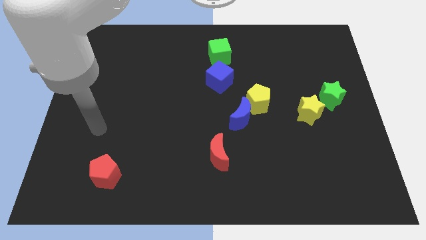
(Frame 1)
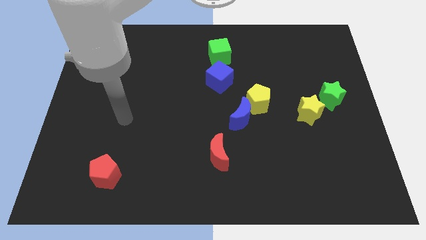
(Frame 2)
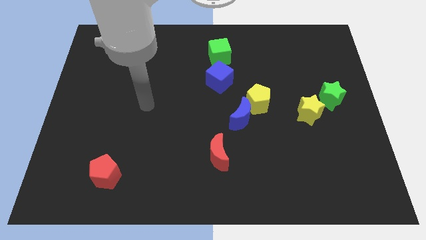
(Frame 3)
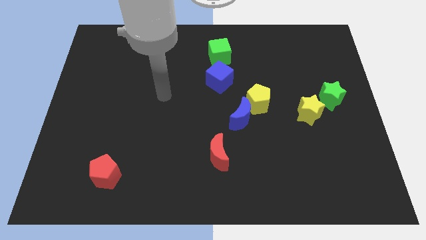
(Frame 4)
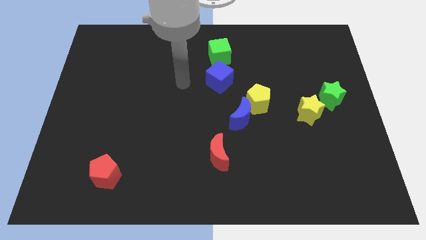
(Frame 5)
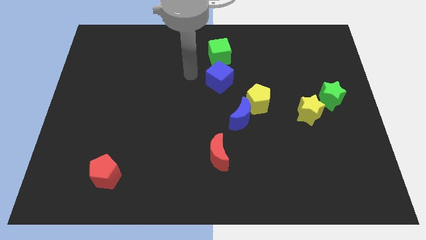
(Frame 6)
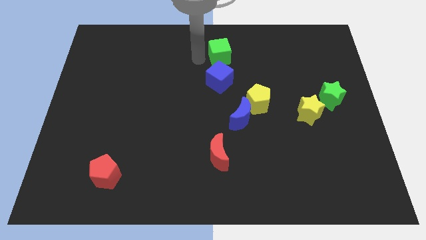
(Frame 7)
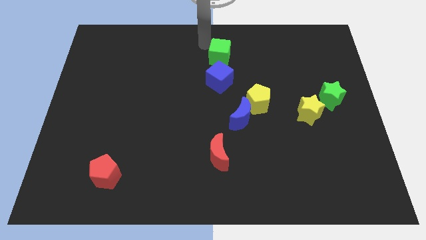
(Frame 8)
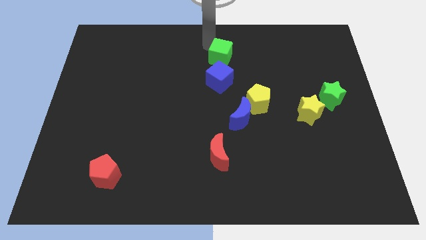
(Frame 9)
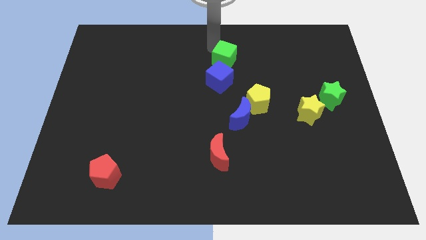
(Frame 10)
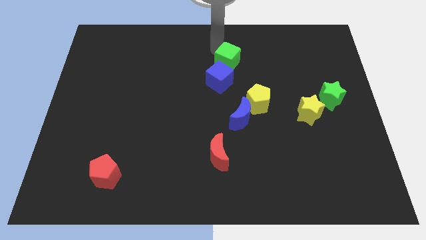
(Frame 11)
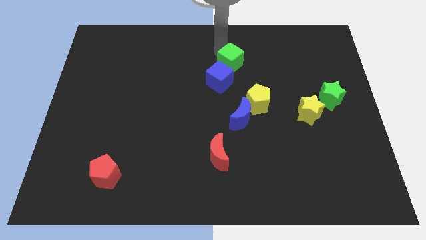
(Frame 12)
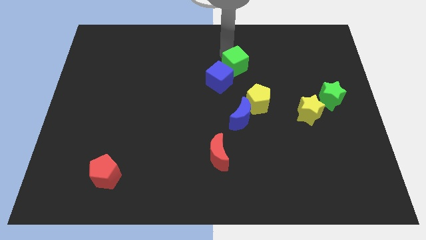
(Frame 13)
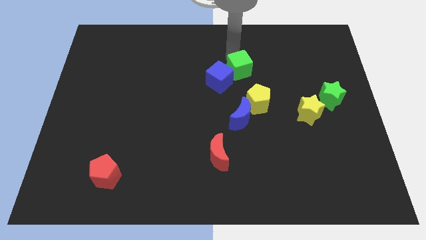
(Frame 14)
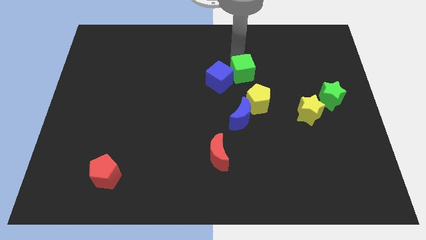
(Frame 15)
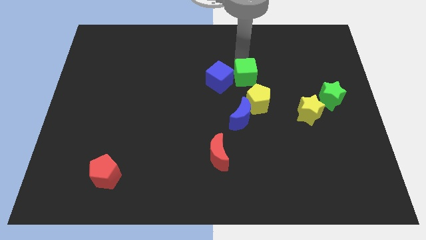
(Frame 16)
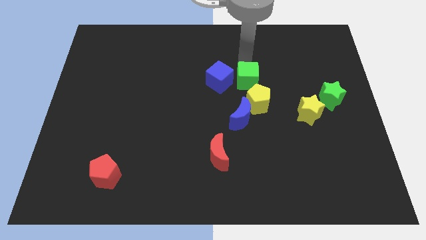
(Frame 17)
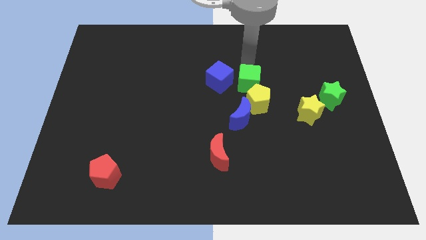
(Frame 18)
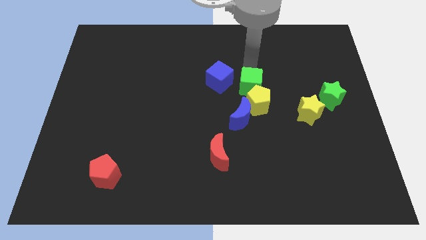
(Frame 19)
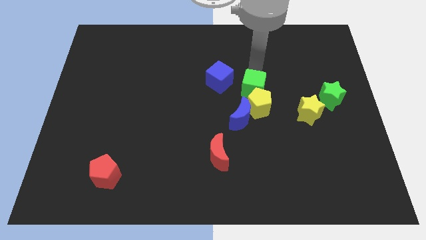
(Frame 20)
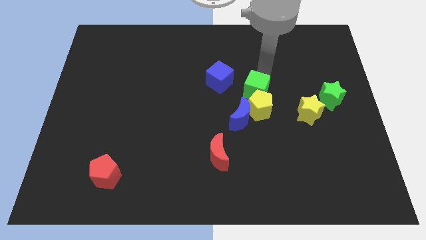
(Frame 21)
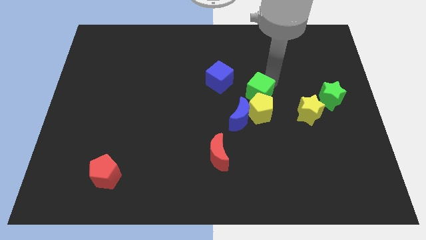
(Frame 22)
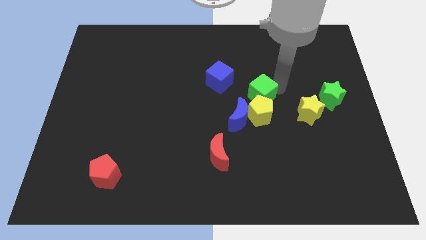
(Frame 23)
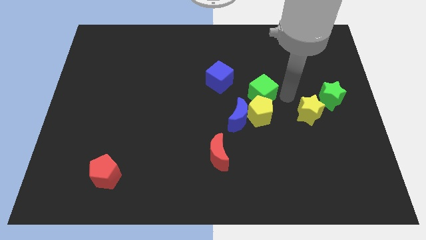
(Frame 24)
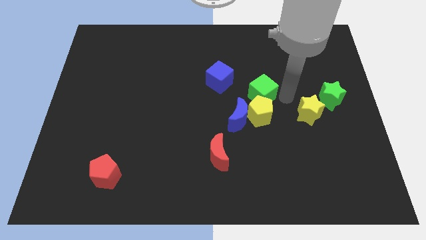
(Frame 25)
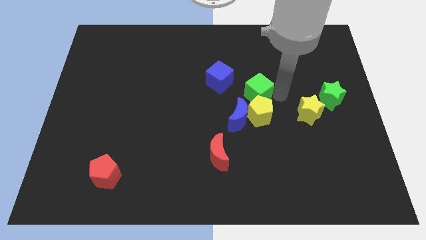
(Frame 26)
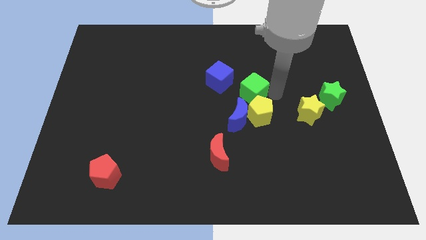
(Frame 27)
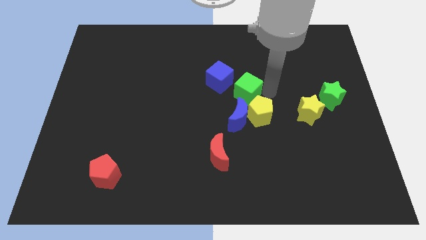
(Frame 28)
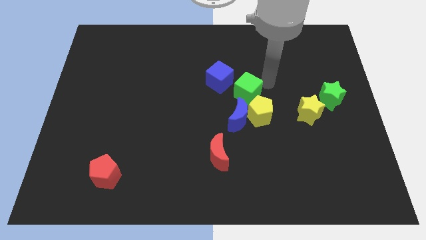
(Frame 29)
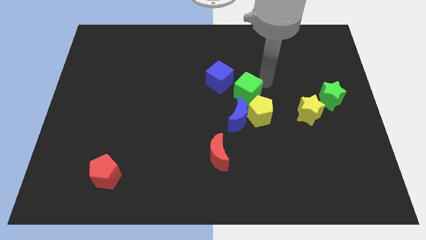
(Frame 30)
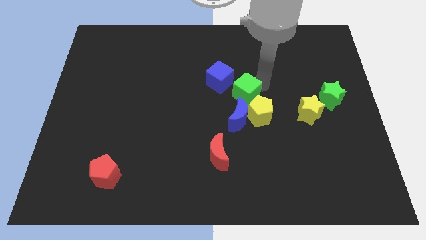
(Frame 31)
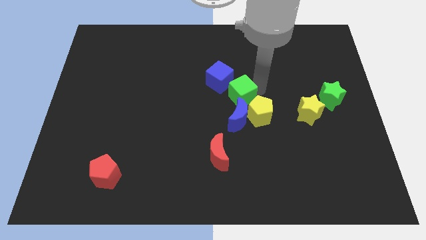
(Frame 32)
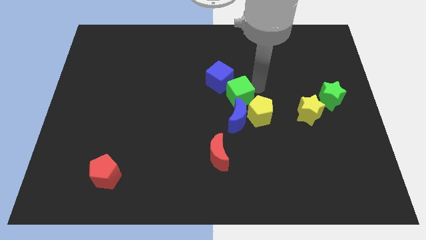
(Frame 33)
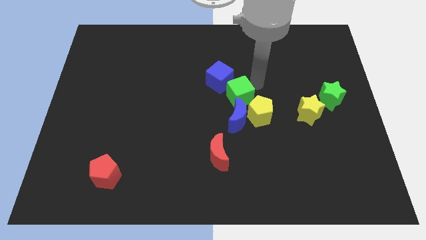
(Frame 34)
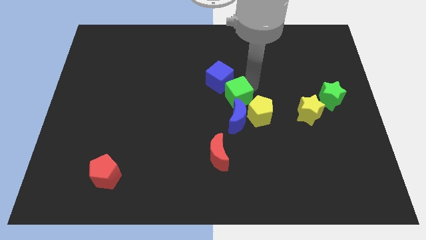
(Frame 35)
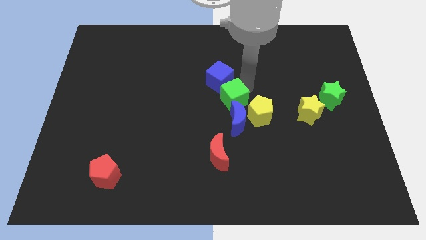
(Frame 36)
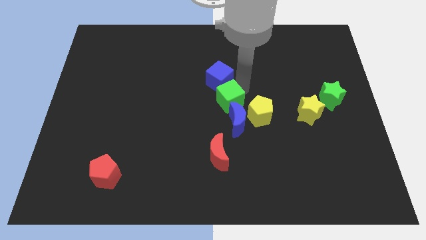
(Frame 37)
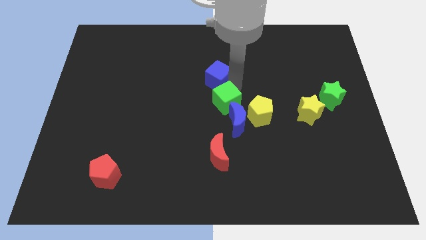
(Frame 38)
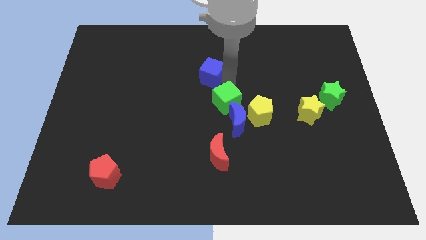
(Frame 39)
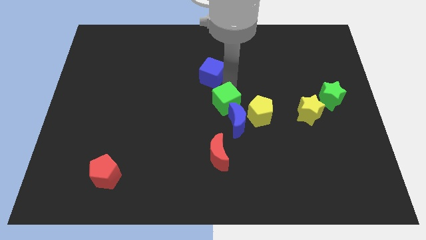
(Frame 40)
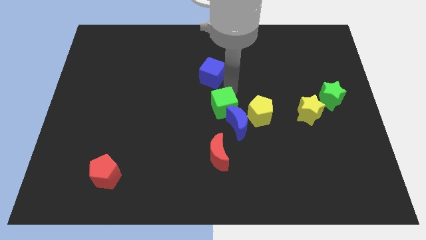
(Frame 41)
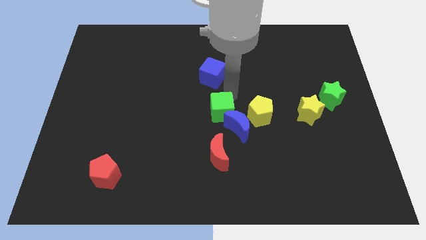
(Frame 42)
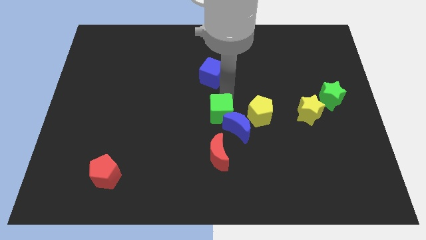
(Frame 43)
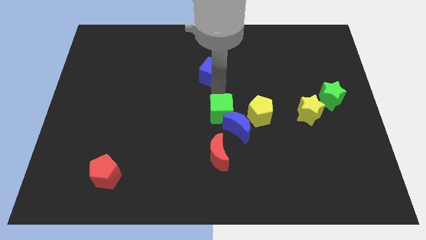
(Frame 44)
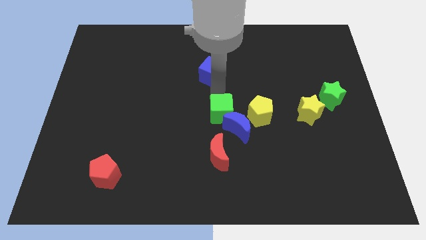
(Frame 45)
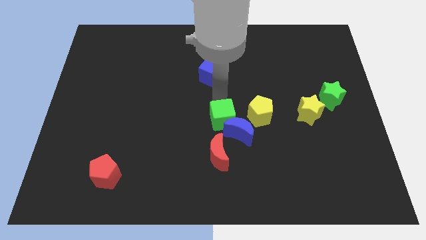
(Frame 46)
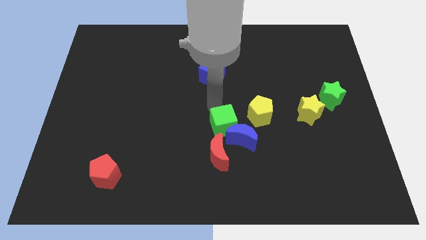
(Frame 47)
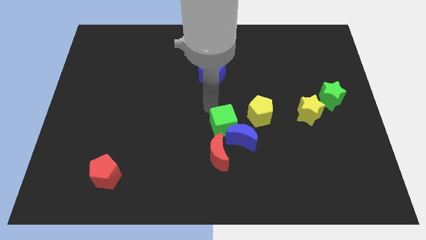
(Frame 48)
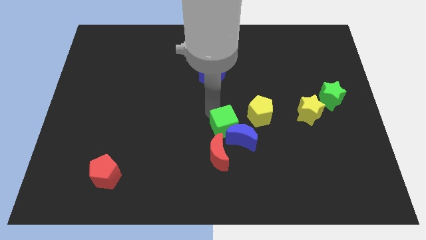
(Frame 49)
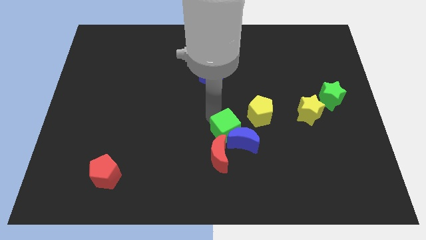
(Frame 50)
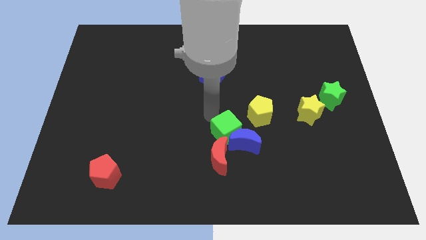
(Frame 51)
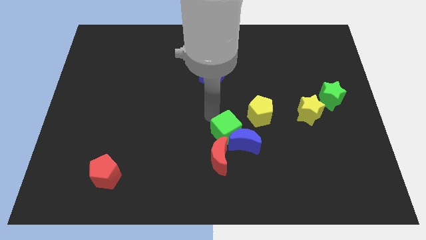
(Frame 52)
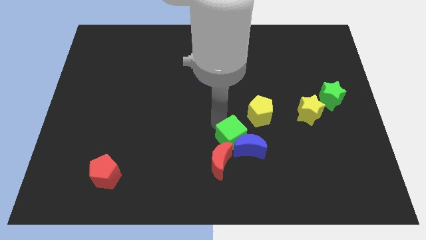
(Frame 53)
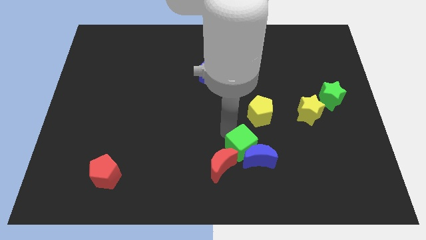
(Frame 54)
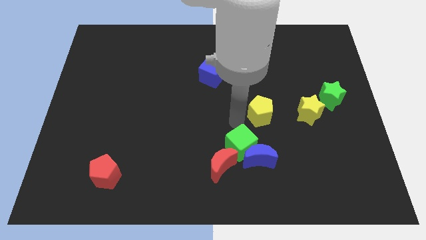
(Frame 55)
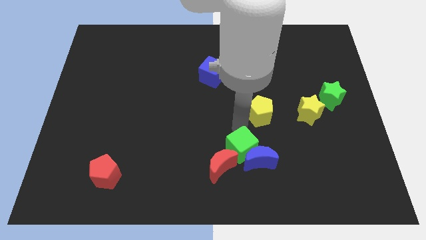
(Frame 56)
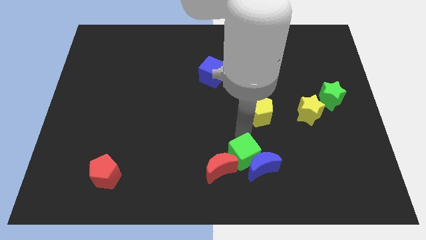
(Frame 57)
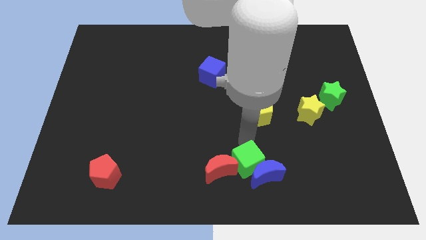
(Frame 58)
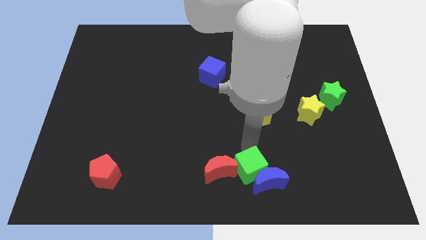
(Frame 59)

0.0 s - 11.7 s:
slide the green cube to the bottom right side of the red moon
